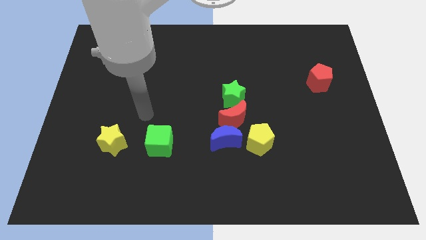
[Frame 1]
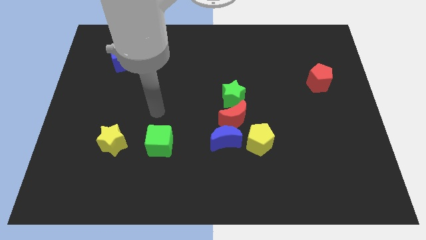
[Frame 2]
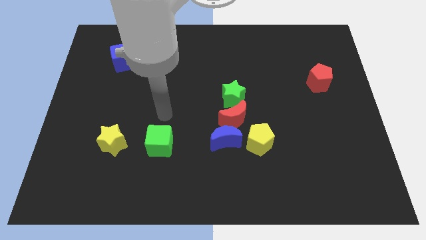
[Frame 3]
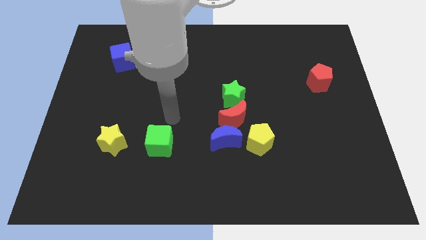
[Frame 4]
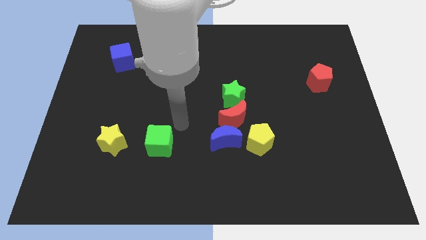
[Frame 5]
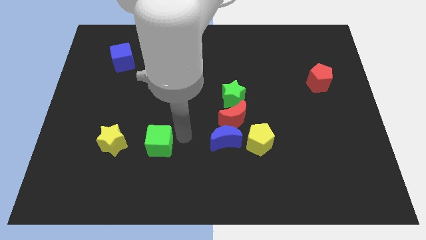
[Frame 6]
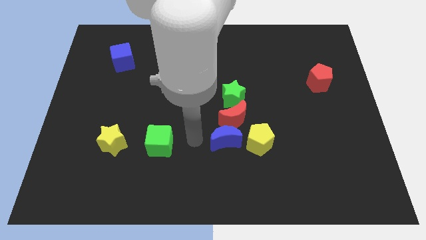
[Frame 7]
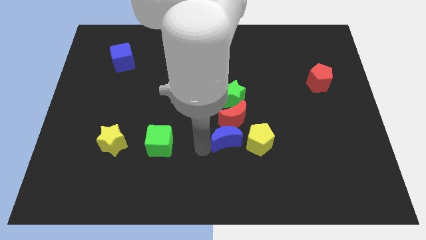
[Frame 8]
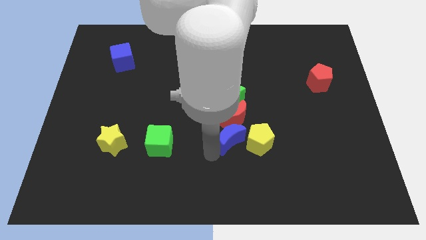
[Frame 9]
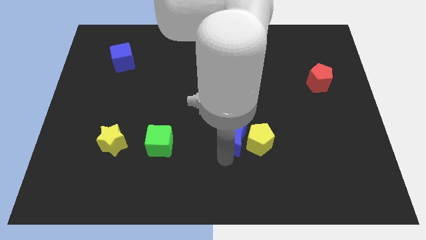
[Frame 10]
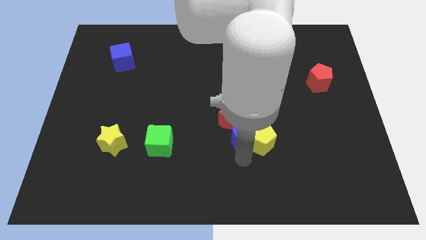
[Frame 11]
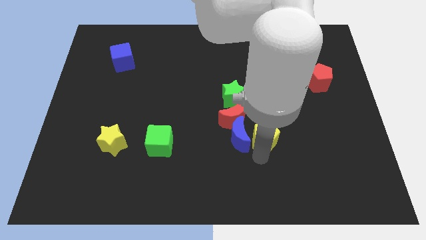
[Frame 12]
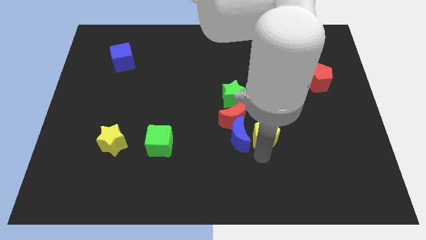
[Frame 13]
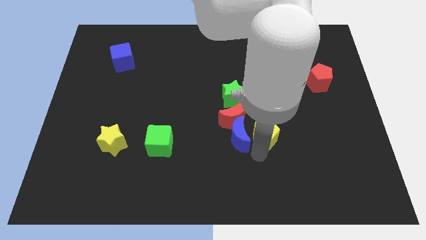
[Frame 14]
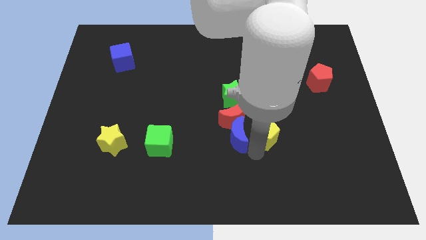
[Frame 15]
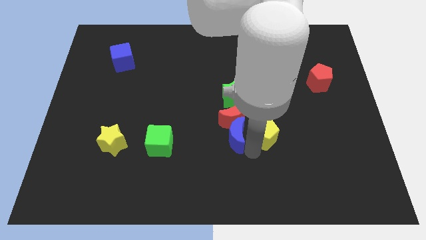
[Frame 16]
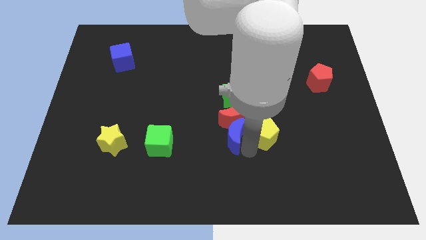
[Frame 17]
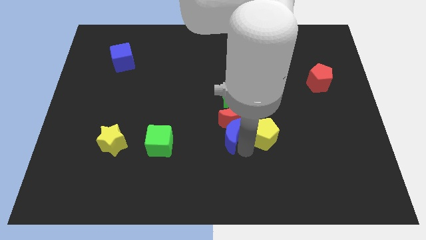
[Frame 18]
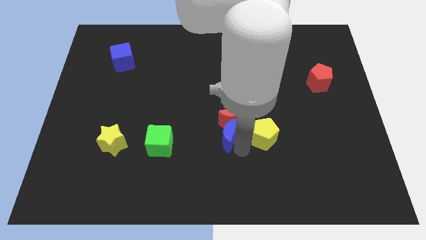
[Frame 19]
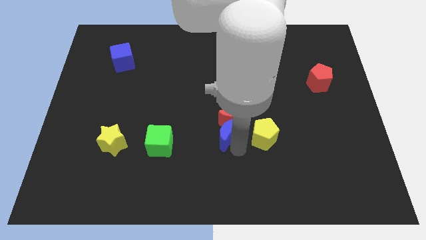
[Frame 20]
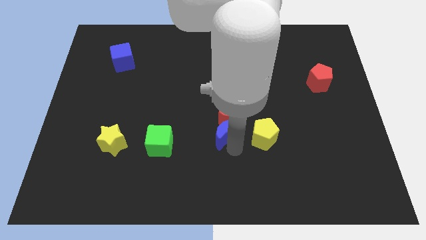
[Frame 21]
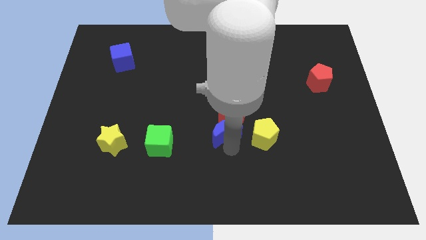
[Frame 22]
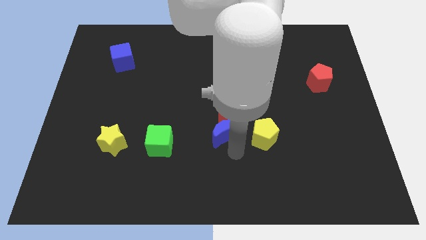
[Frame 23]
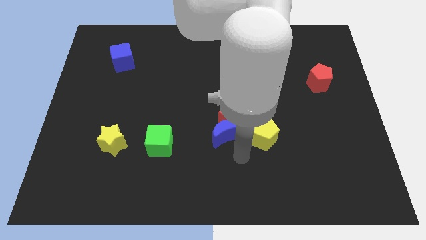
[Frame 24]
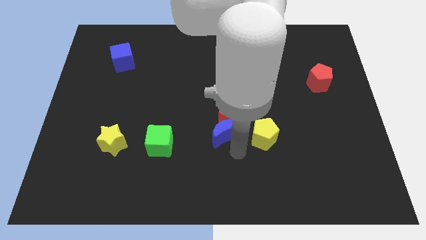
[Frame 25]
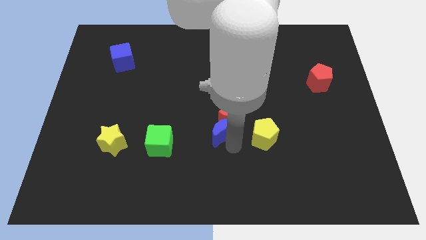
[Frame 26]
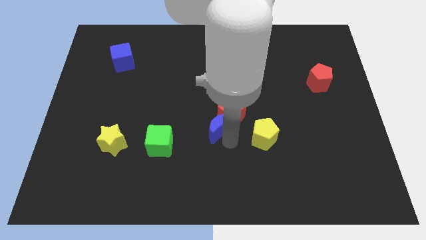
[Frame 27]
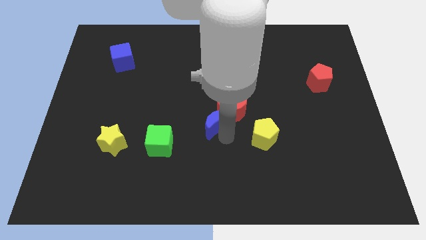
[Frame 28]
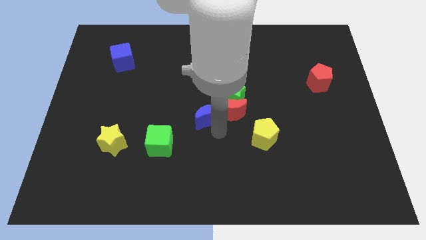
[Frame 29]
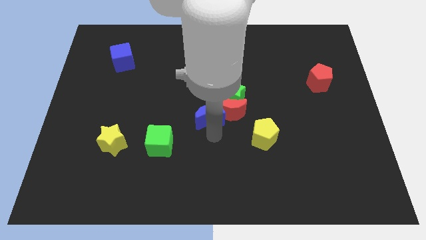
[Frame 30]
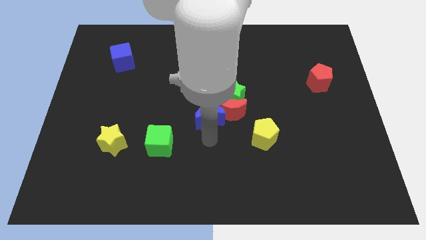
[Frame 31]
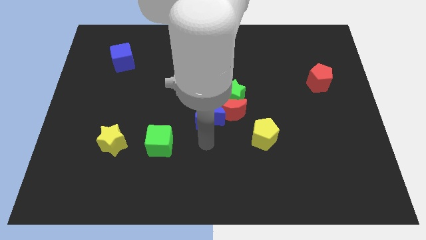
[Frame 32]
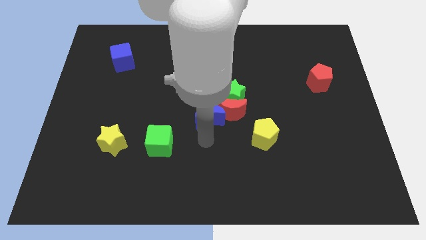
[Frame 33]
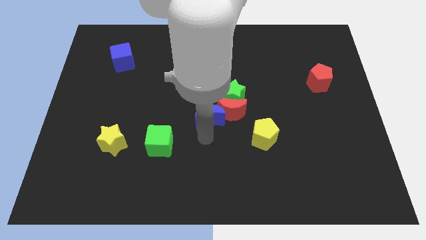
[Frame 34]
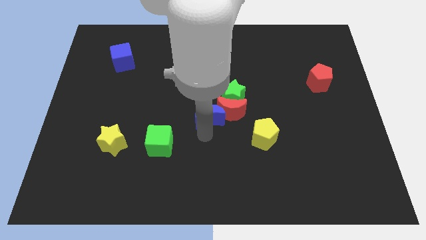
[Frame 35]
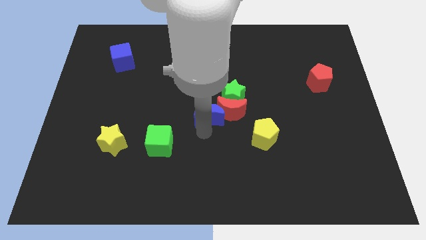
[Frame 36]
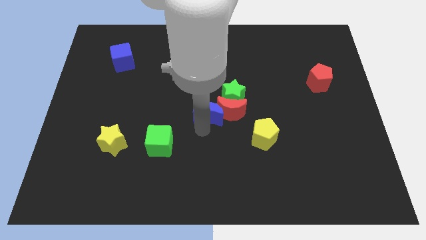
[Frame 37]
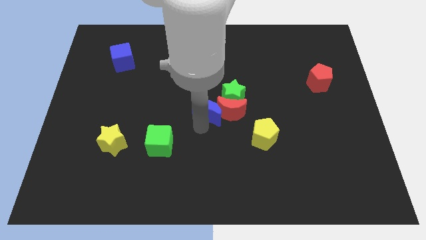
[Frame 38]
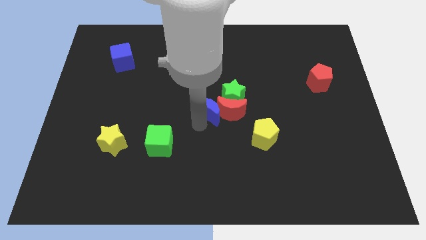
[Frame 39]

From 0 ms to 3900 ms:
slide the blue moon a little upwards

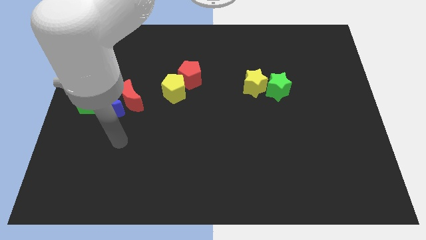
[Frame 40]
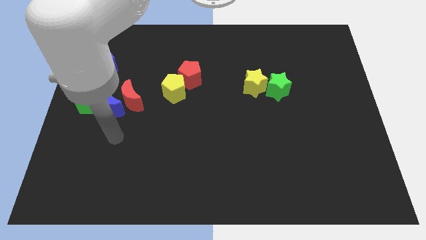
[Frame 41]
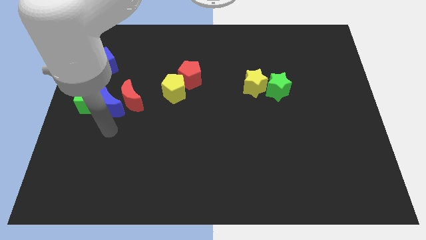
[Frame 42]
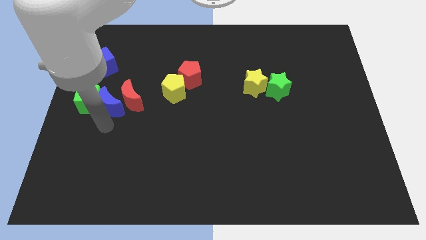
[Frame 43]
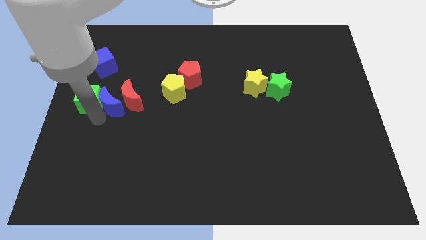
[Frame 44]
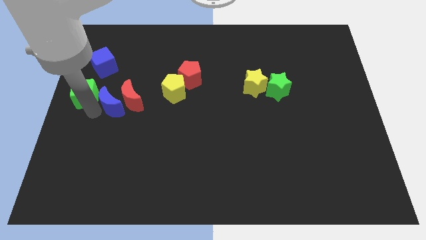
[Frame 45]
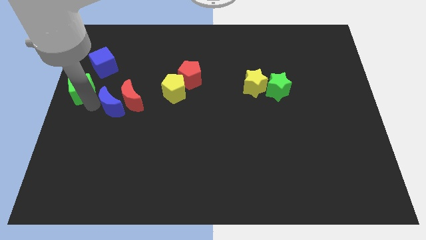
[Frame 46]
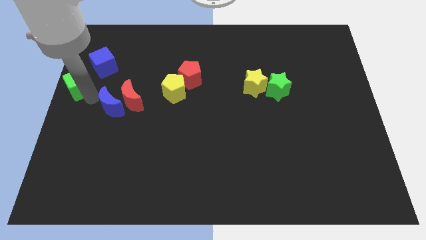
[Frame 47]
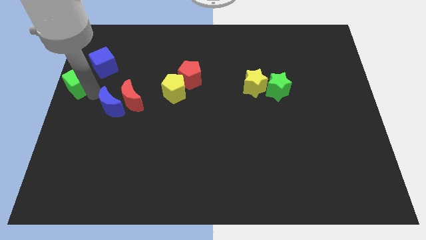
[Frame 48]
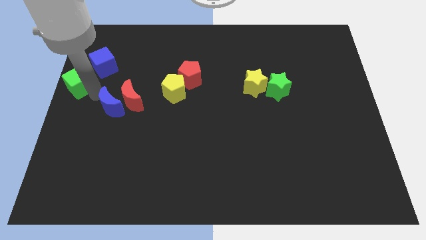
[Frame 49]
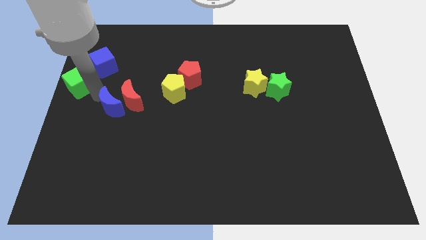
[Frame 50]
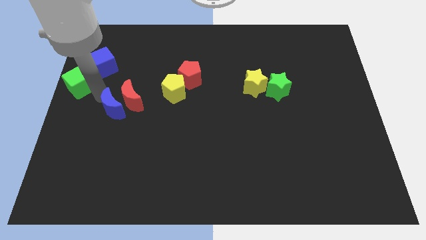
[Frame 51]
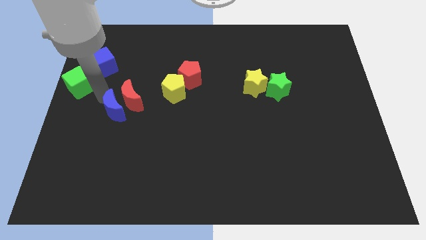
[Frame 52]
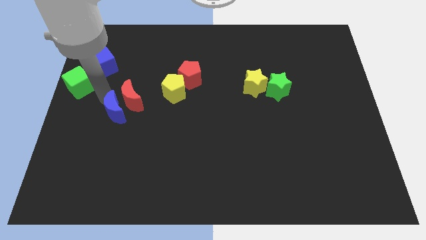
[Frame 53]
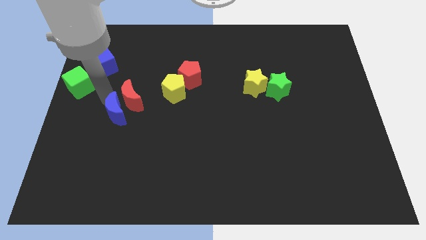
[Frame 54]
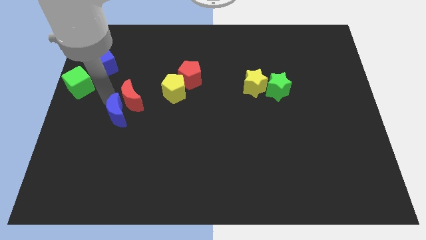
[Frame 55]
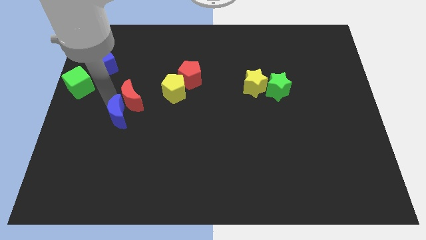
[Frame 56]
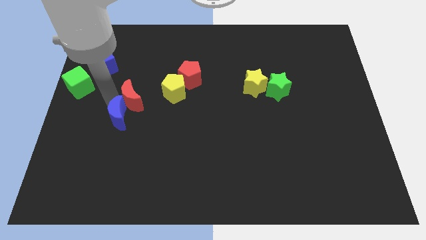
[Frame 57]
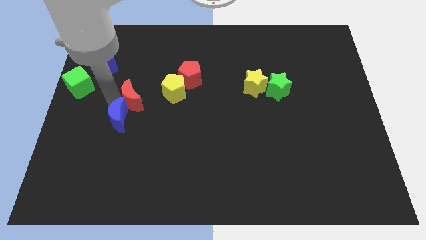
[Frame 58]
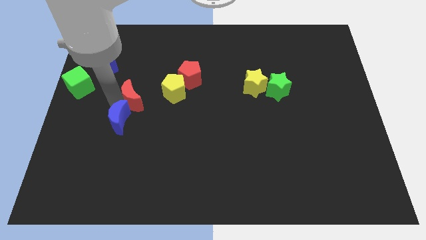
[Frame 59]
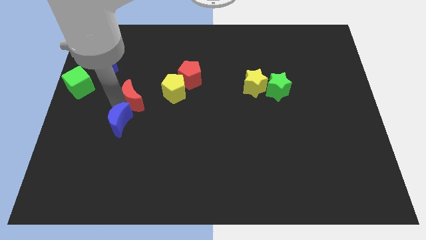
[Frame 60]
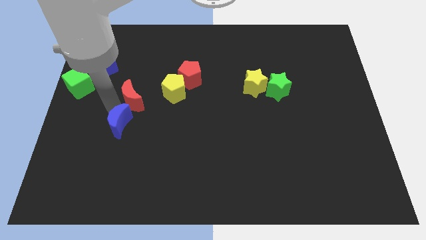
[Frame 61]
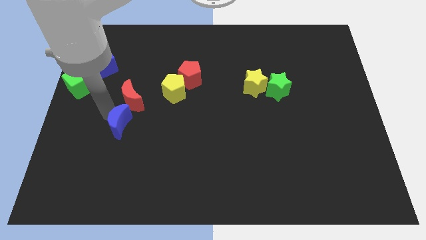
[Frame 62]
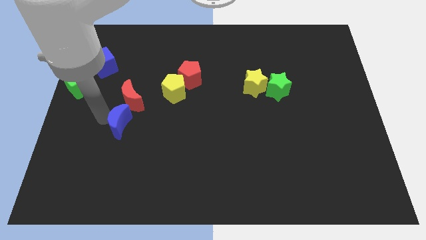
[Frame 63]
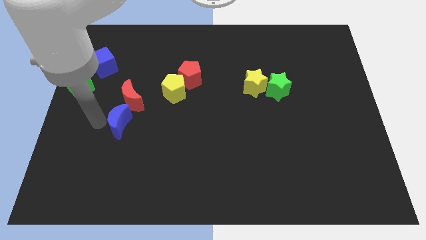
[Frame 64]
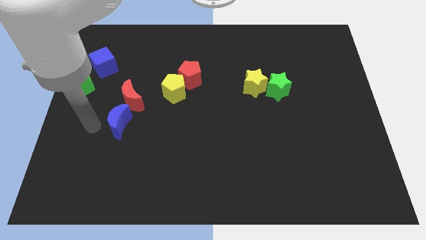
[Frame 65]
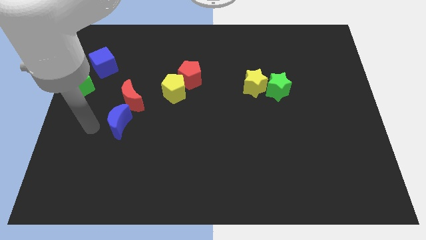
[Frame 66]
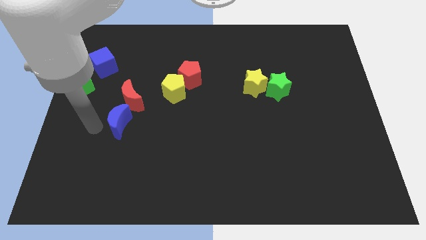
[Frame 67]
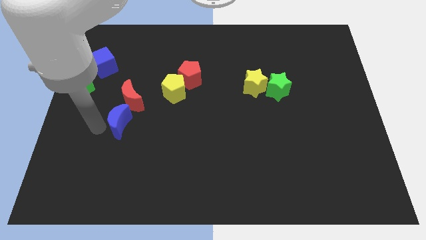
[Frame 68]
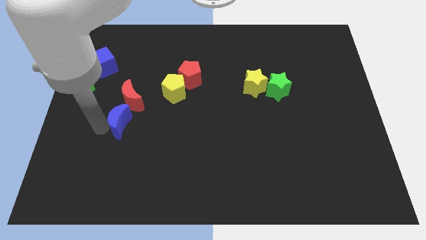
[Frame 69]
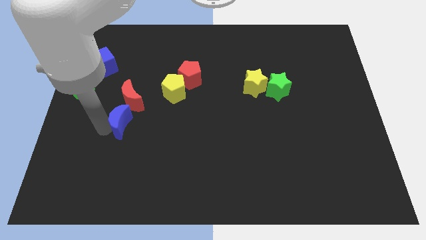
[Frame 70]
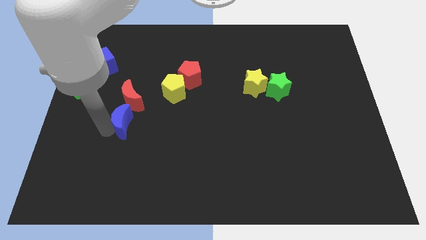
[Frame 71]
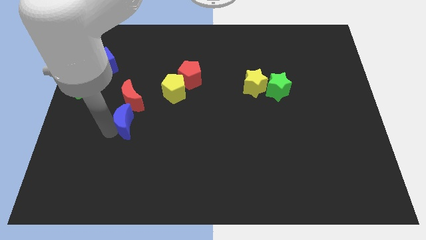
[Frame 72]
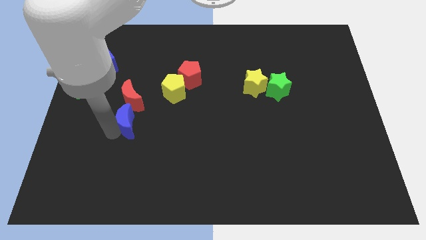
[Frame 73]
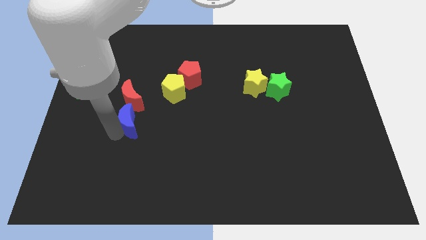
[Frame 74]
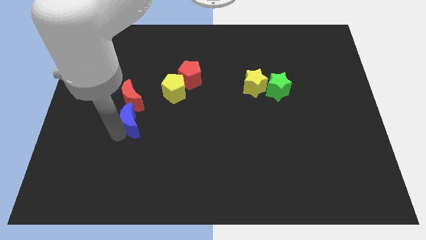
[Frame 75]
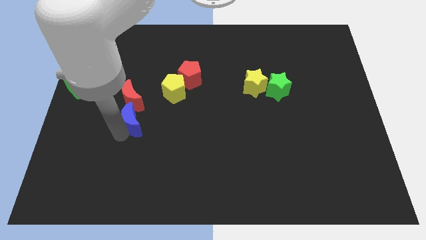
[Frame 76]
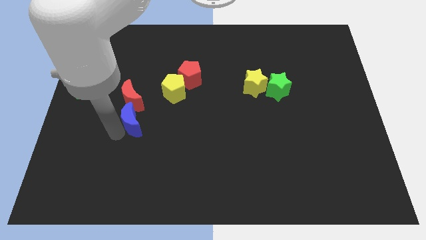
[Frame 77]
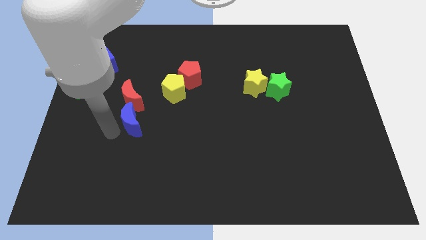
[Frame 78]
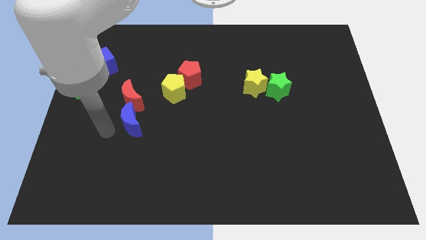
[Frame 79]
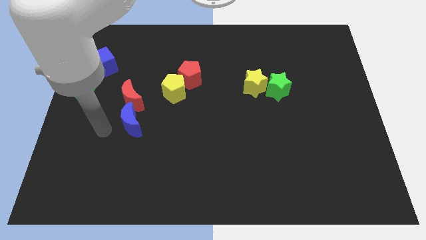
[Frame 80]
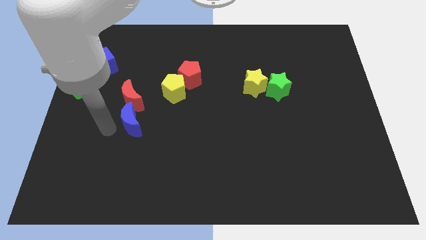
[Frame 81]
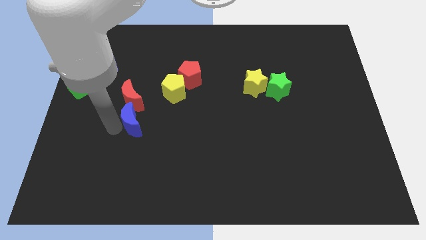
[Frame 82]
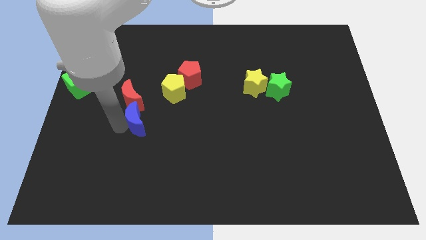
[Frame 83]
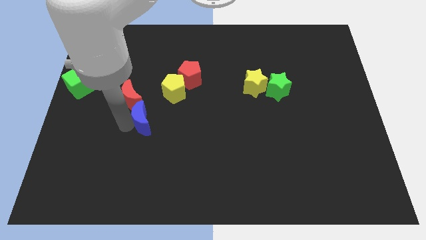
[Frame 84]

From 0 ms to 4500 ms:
move the blue moon right slightly
